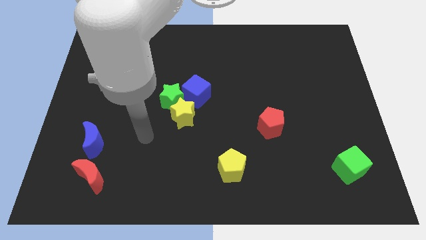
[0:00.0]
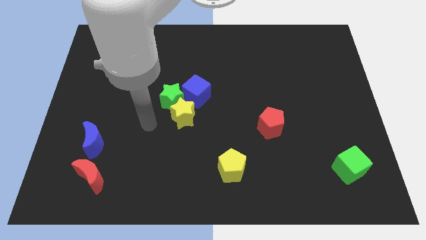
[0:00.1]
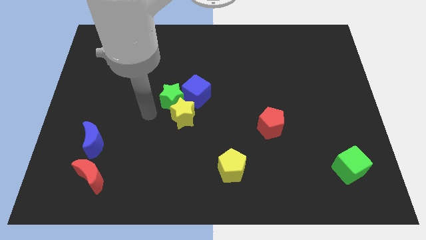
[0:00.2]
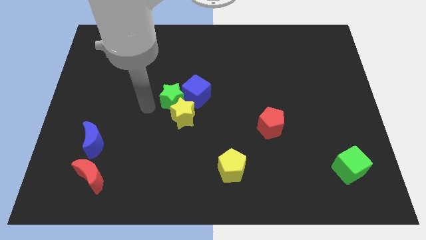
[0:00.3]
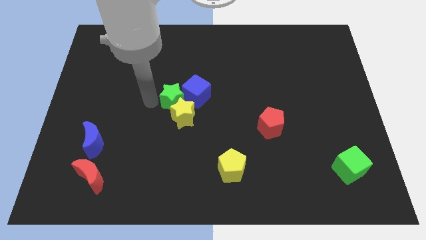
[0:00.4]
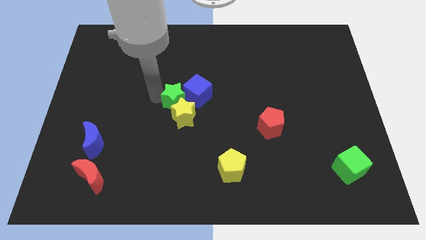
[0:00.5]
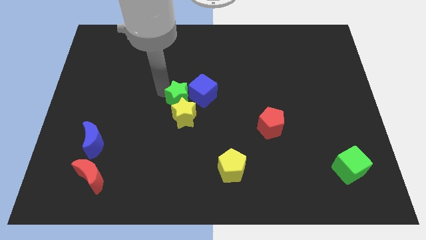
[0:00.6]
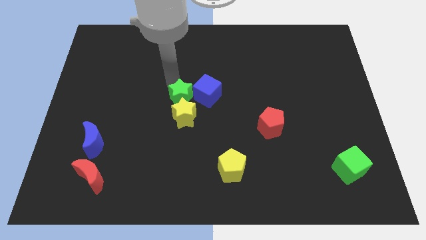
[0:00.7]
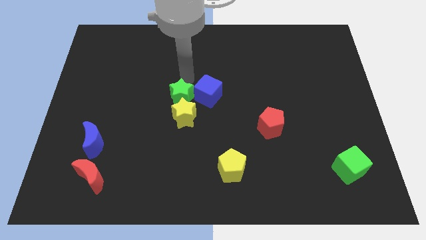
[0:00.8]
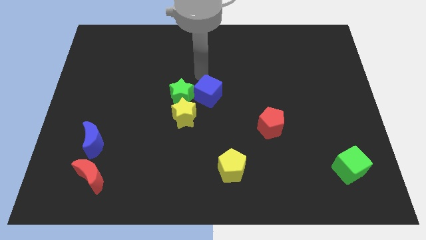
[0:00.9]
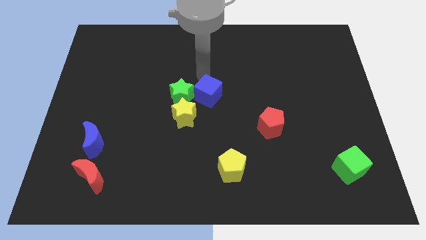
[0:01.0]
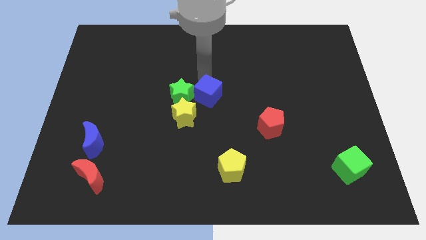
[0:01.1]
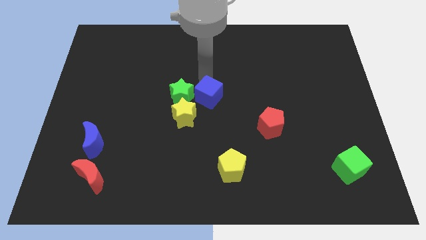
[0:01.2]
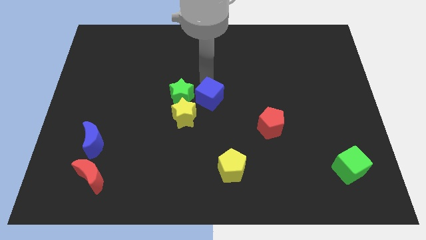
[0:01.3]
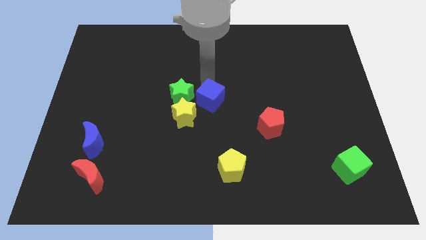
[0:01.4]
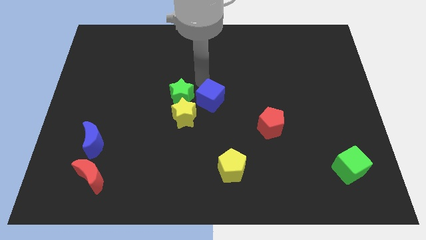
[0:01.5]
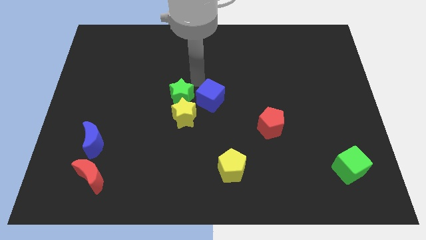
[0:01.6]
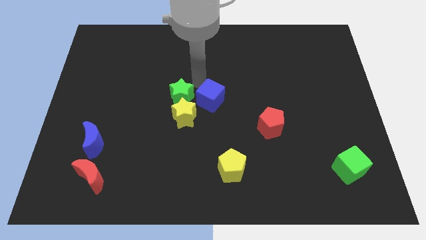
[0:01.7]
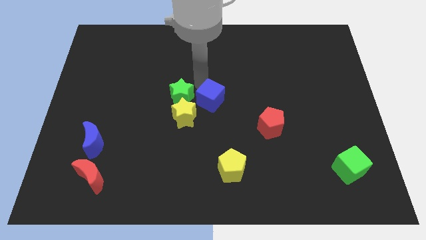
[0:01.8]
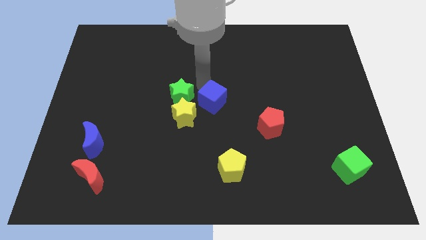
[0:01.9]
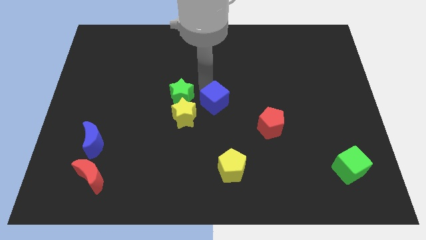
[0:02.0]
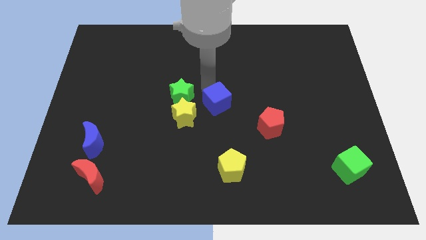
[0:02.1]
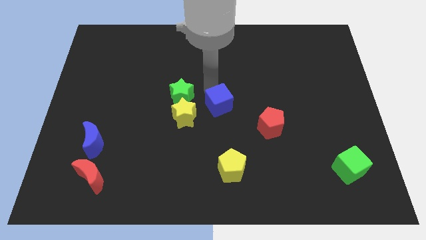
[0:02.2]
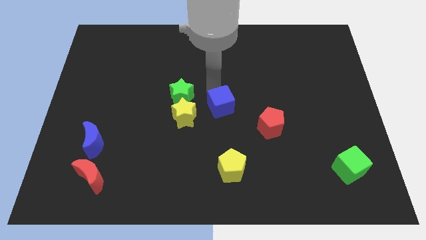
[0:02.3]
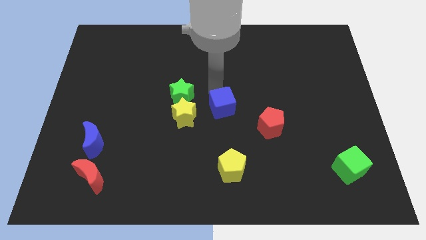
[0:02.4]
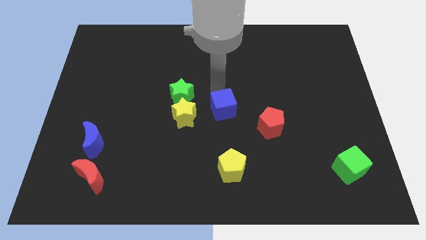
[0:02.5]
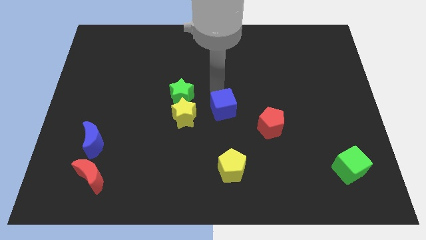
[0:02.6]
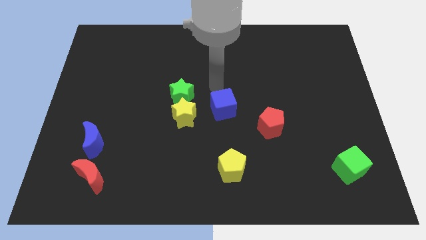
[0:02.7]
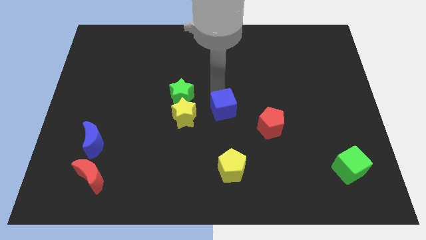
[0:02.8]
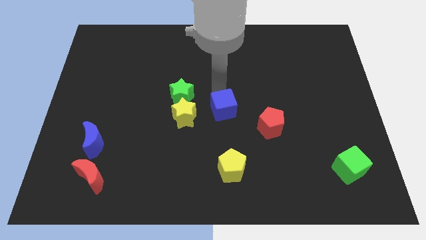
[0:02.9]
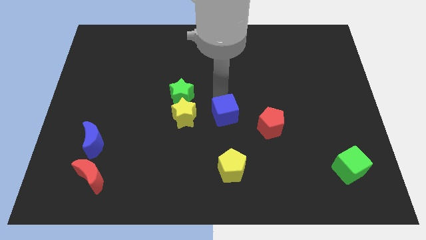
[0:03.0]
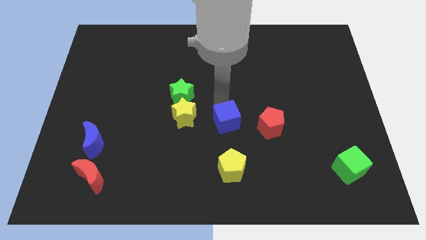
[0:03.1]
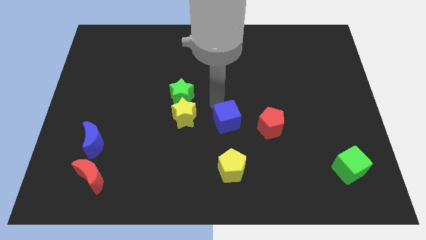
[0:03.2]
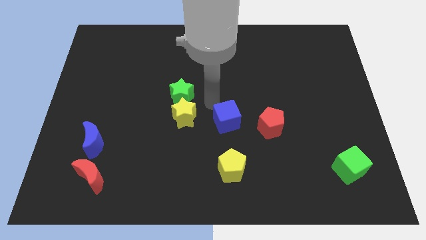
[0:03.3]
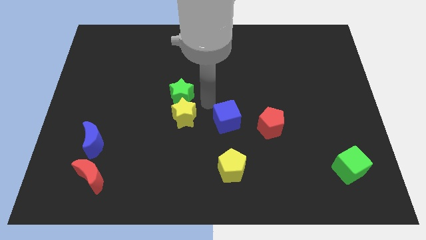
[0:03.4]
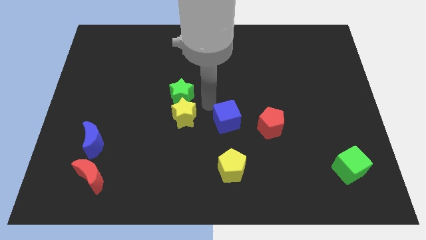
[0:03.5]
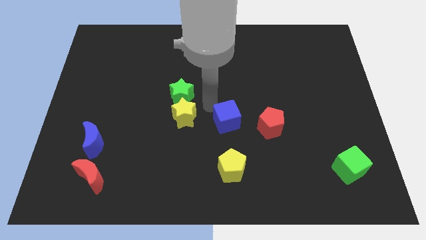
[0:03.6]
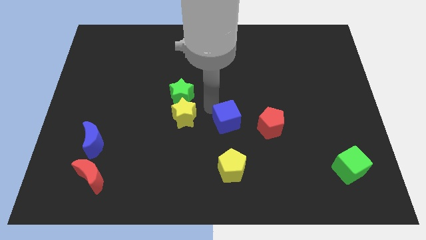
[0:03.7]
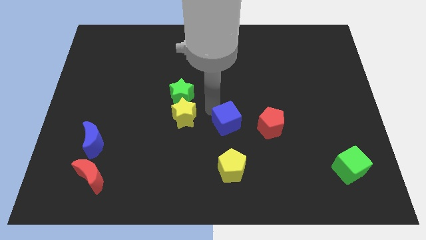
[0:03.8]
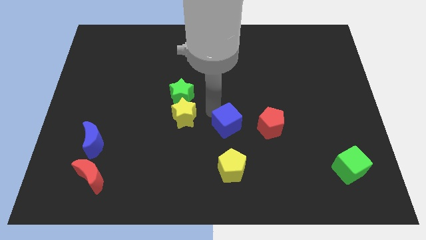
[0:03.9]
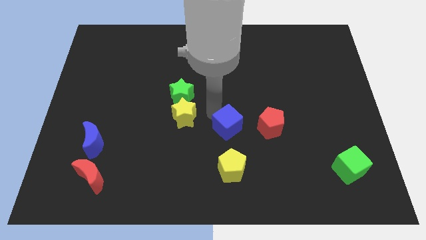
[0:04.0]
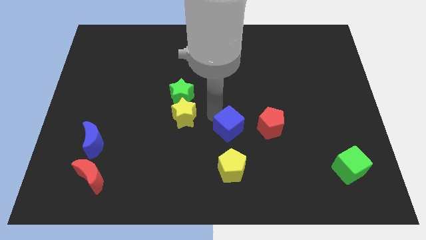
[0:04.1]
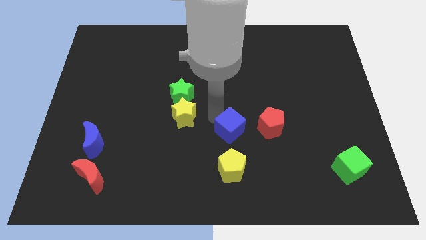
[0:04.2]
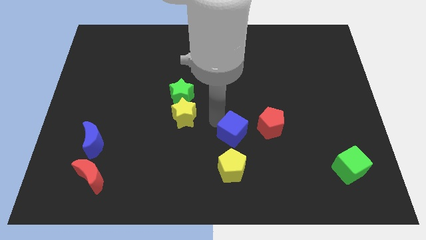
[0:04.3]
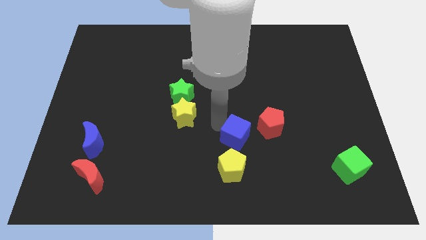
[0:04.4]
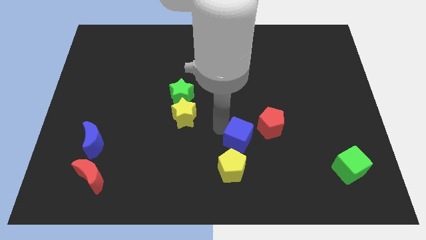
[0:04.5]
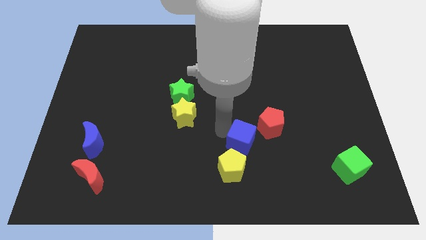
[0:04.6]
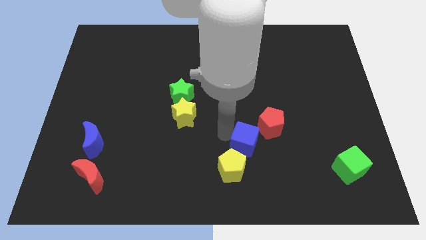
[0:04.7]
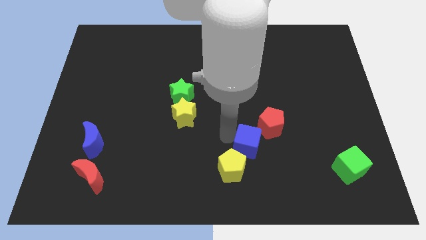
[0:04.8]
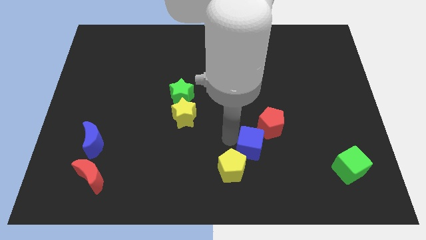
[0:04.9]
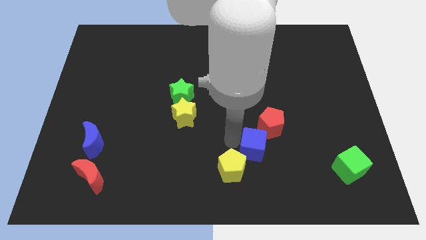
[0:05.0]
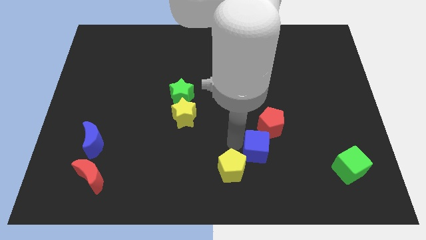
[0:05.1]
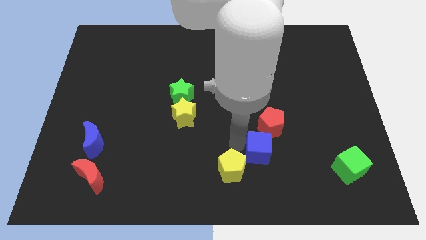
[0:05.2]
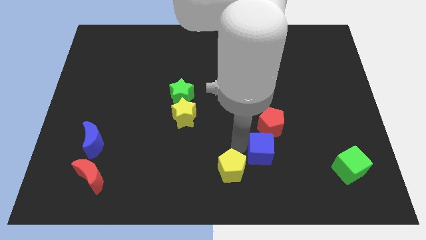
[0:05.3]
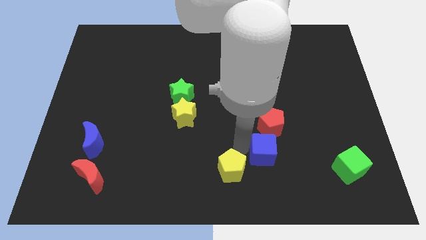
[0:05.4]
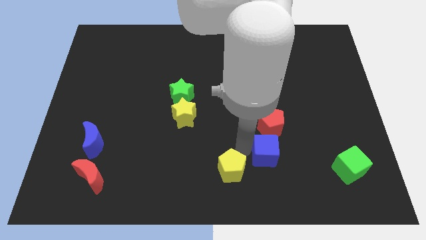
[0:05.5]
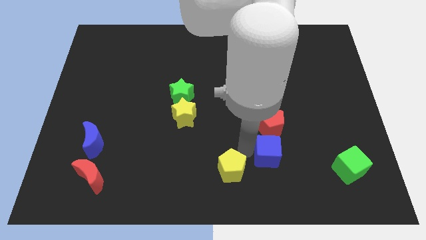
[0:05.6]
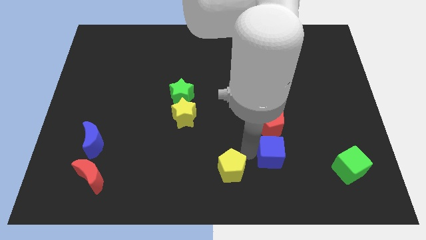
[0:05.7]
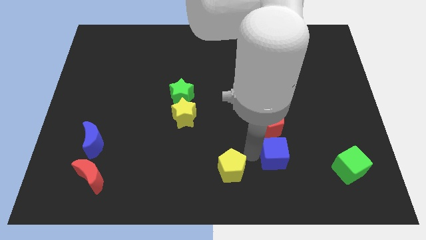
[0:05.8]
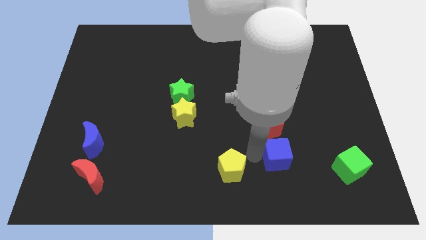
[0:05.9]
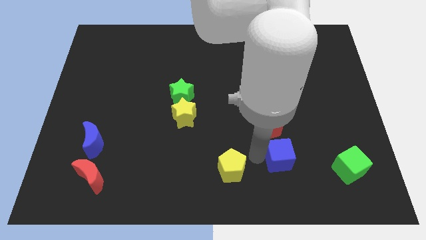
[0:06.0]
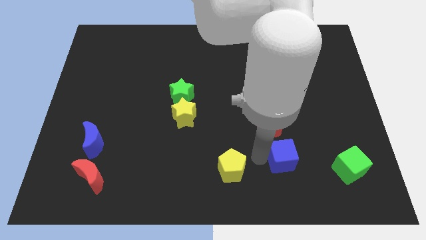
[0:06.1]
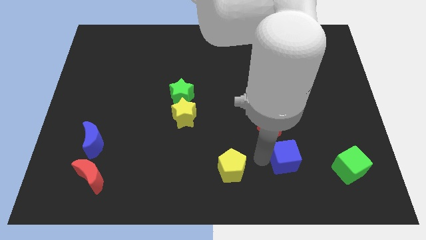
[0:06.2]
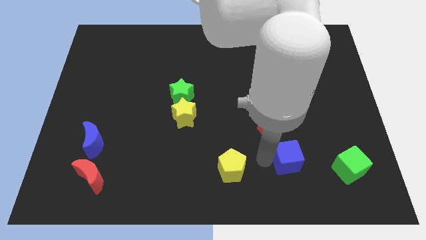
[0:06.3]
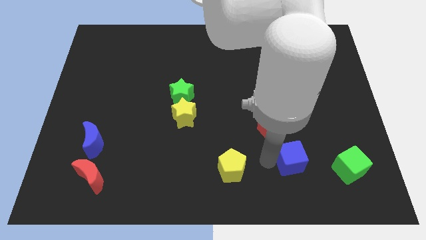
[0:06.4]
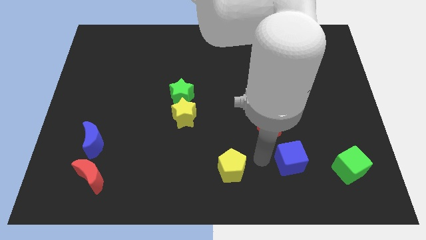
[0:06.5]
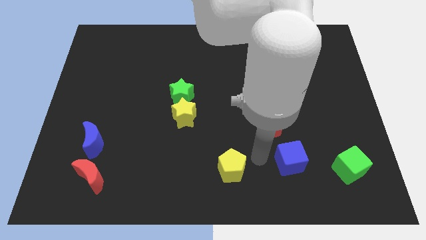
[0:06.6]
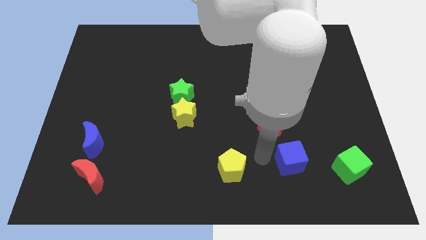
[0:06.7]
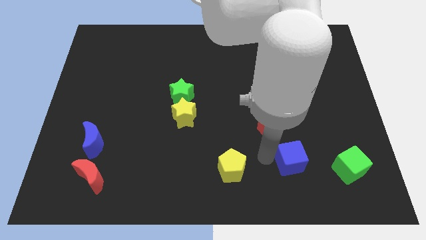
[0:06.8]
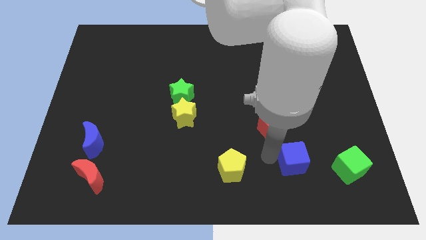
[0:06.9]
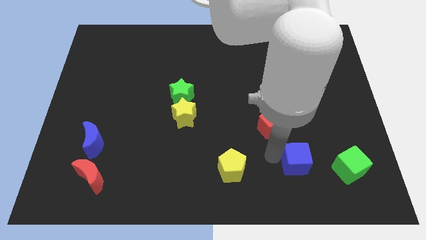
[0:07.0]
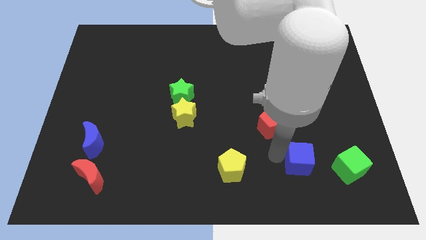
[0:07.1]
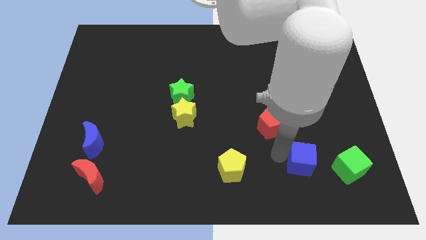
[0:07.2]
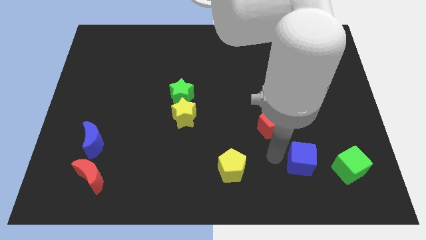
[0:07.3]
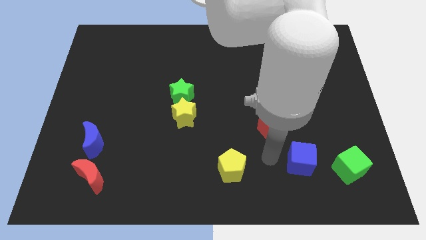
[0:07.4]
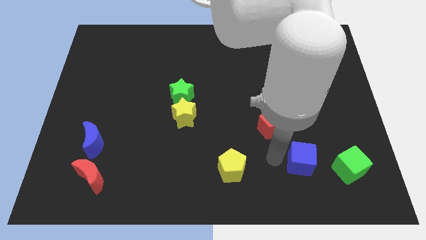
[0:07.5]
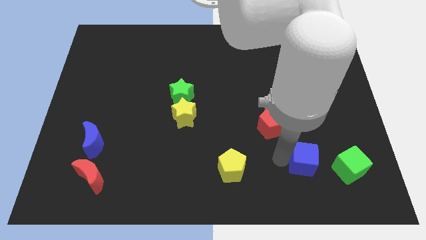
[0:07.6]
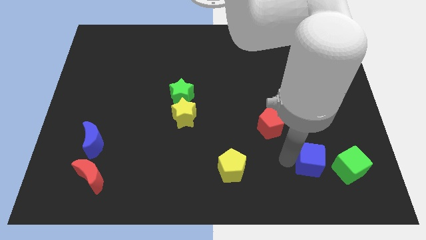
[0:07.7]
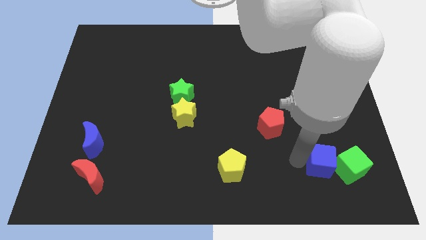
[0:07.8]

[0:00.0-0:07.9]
push the blue cube to the green cube
